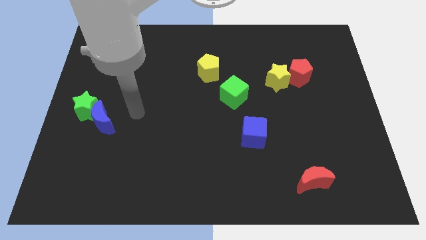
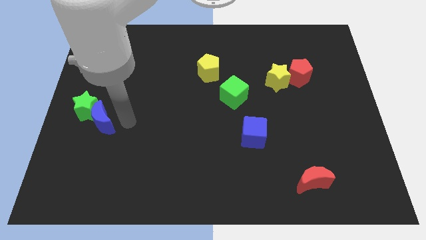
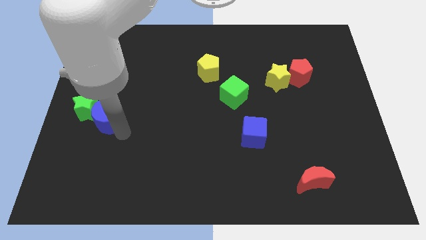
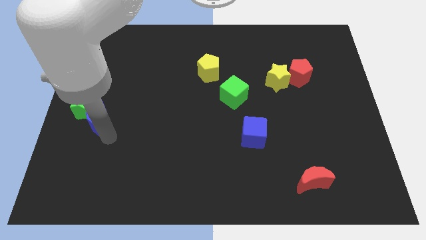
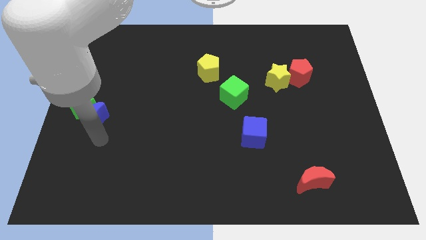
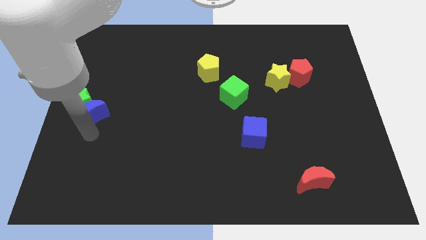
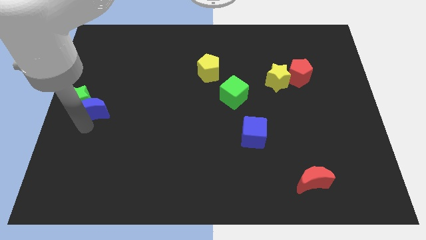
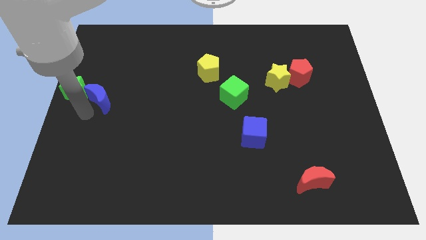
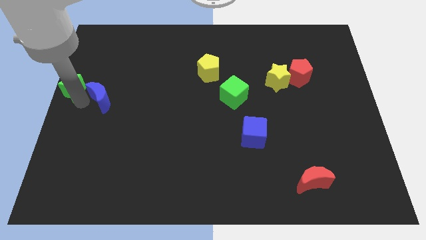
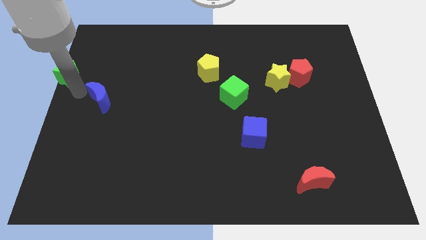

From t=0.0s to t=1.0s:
move the blue moon away from the green star

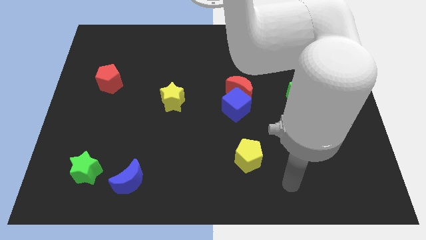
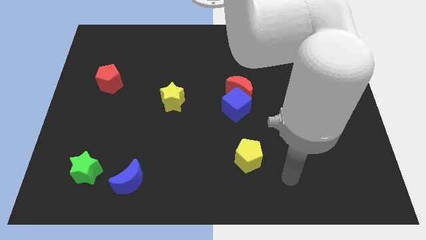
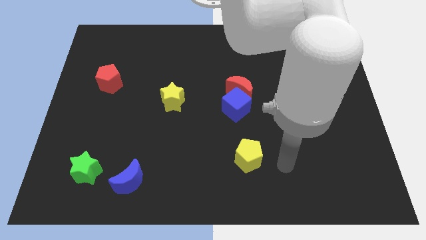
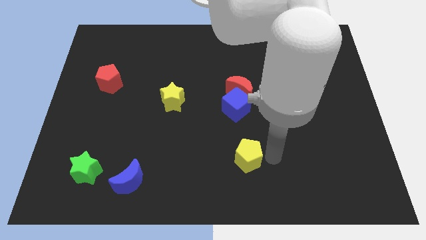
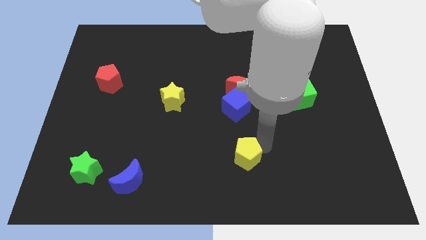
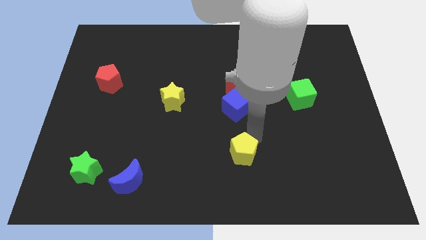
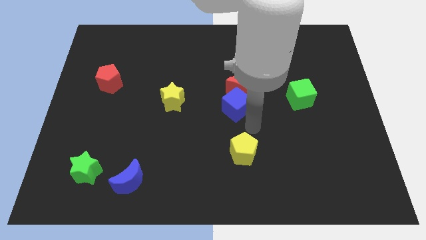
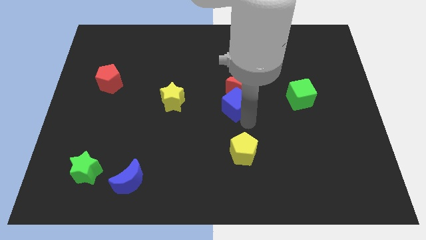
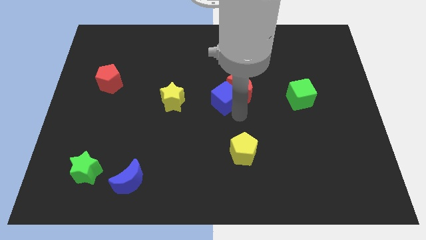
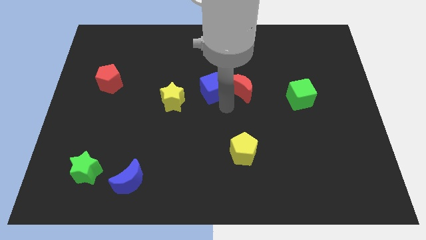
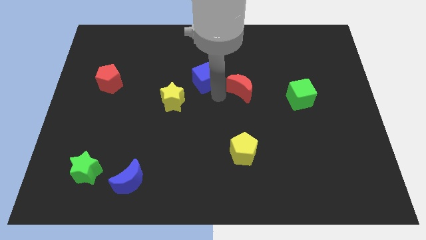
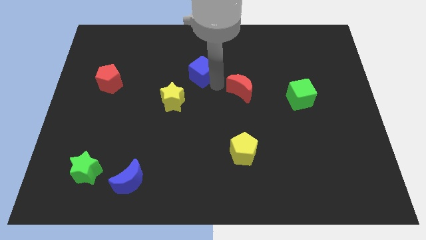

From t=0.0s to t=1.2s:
separate the red moon from the blue cube

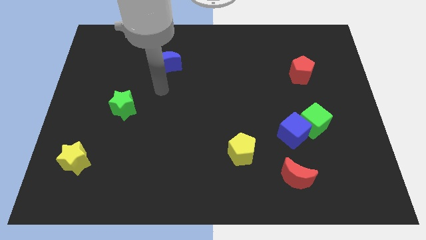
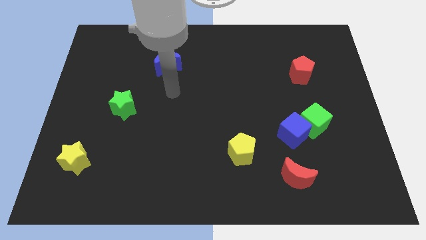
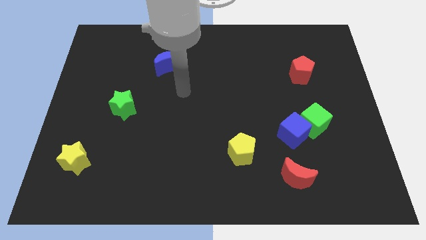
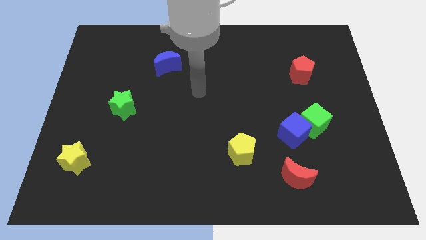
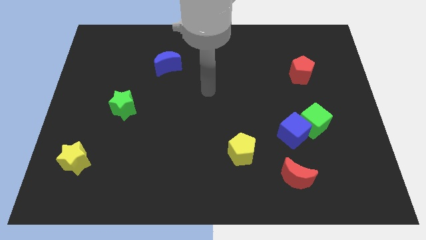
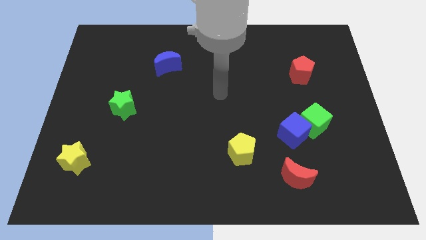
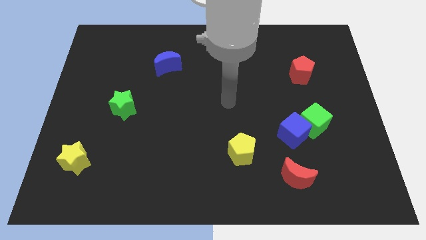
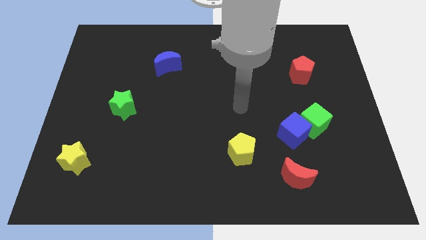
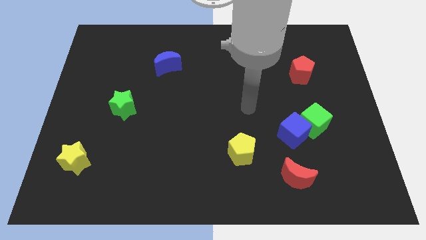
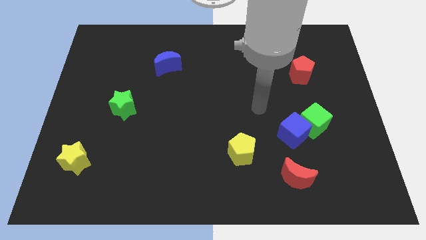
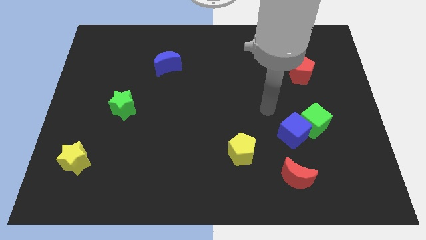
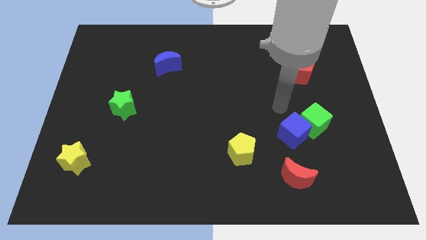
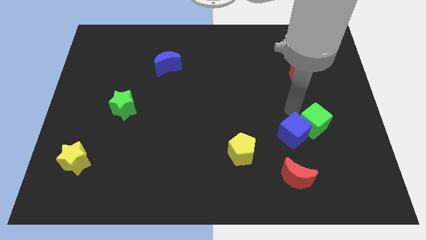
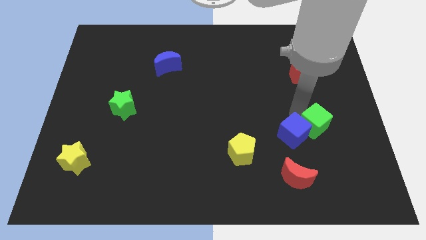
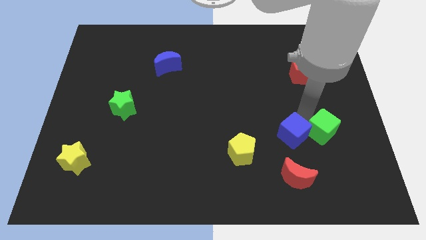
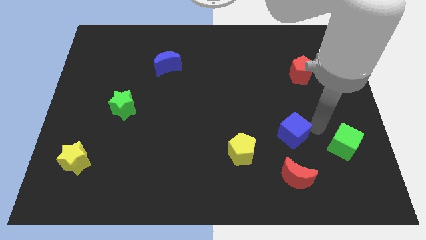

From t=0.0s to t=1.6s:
separate the blue cube from the green cube

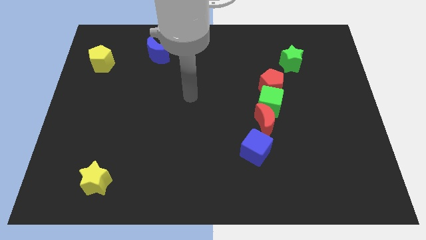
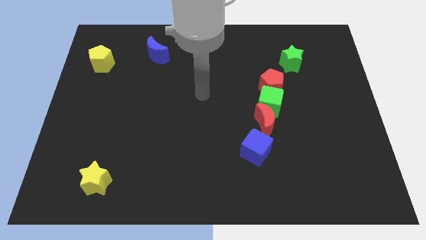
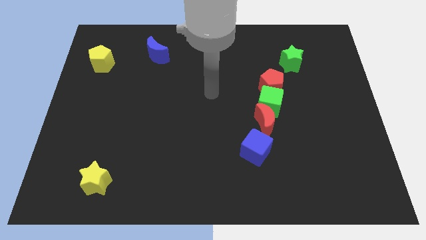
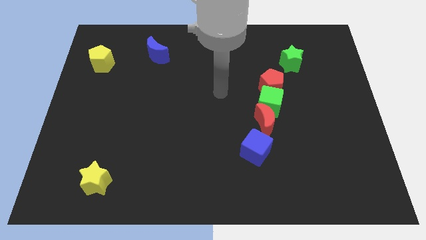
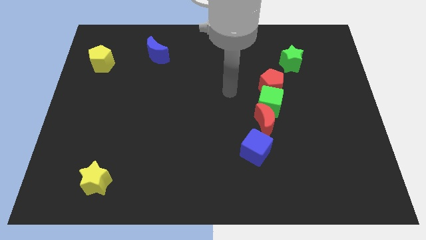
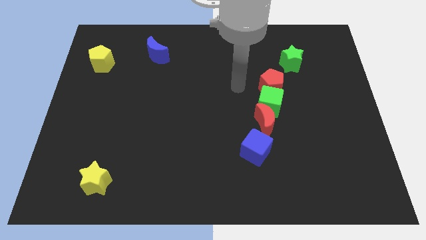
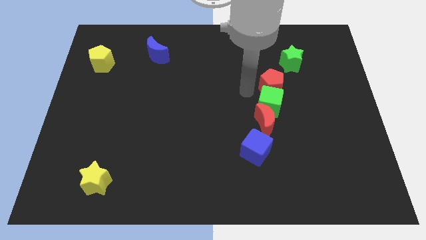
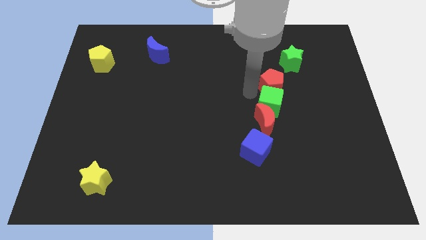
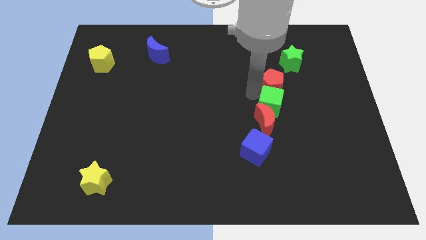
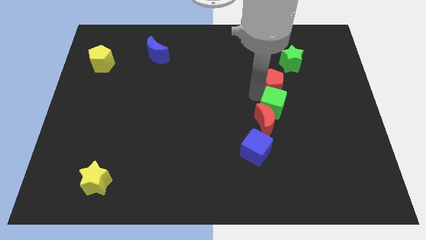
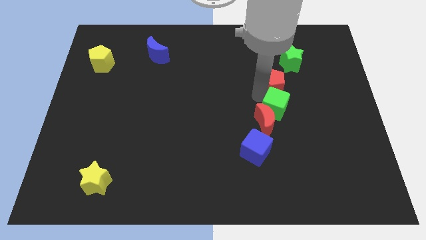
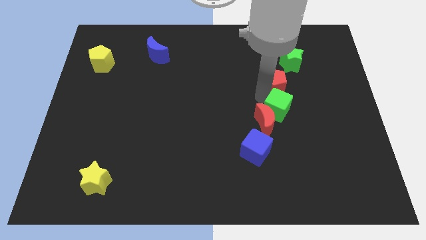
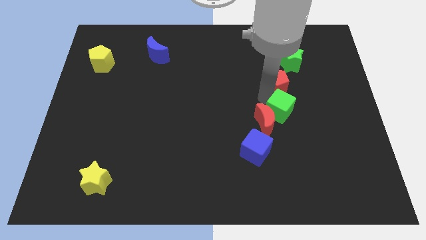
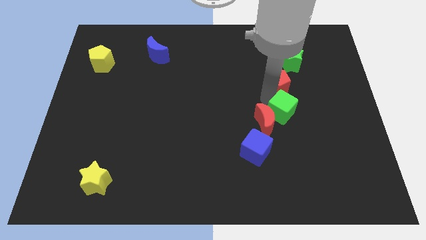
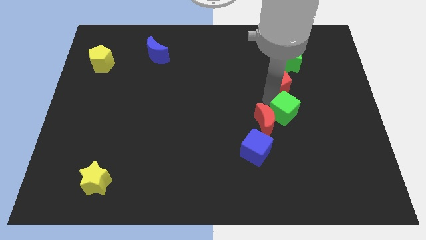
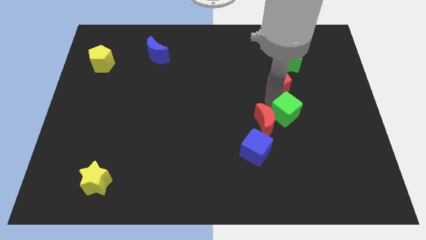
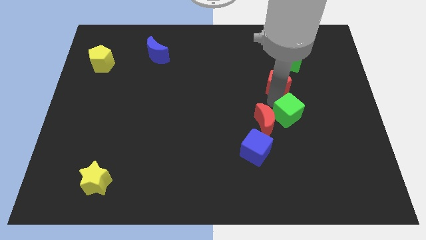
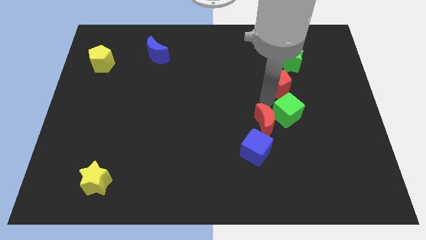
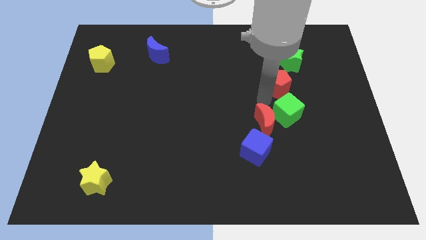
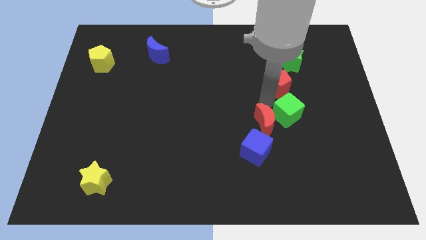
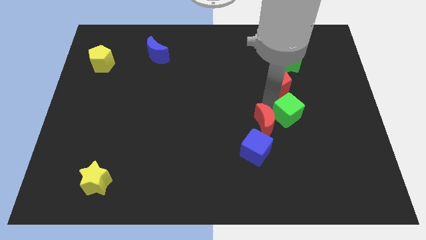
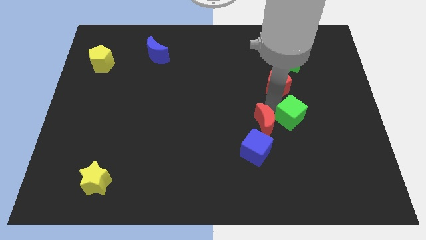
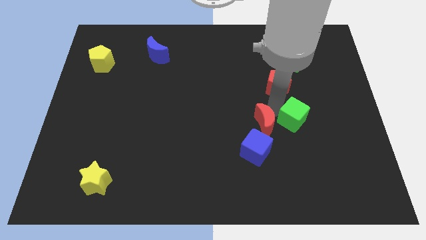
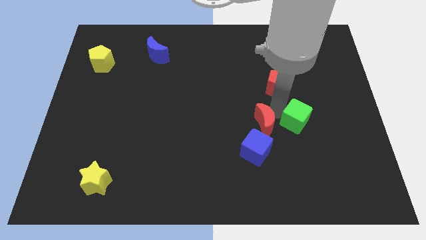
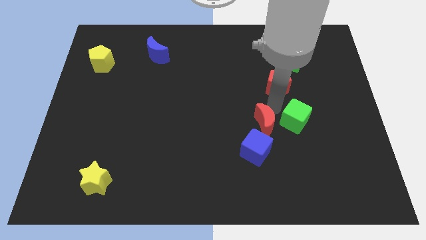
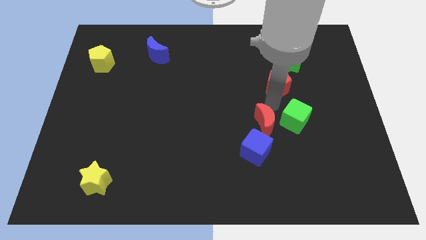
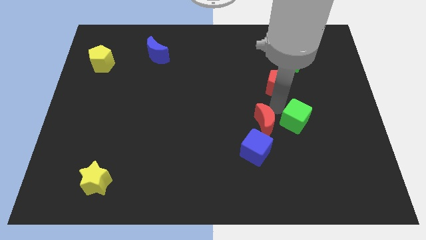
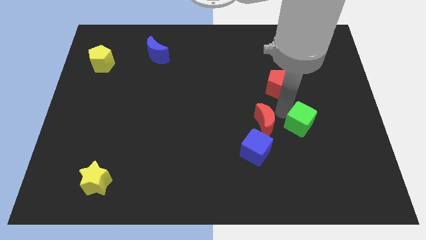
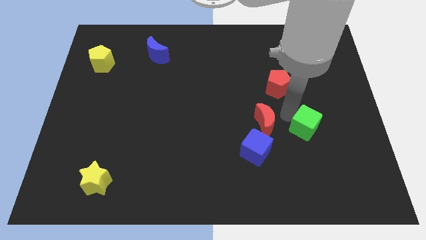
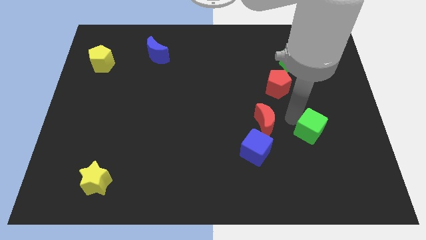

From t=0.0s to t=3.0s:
separate the green cube from the red moon and red pentagon

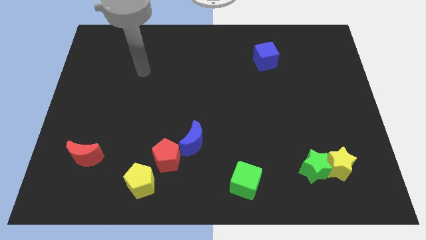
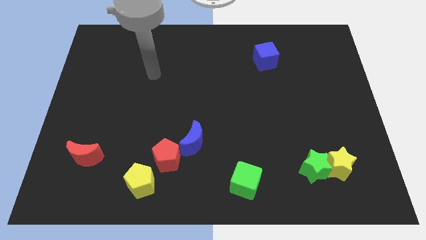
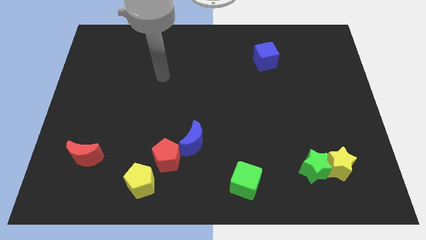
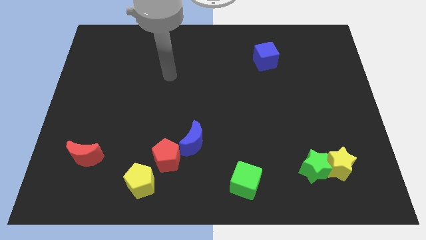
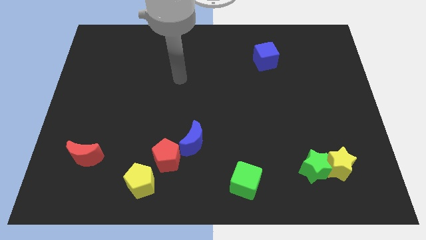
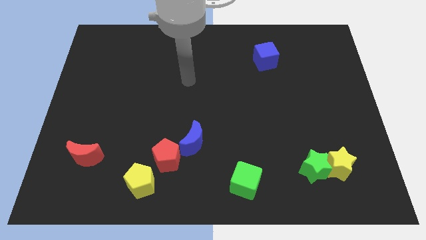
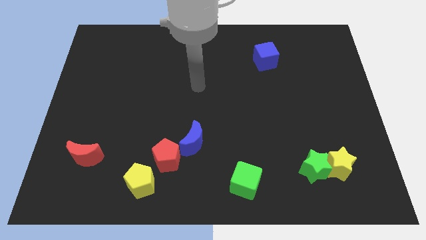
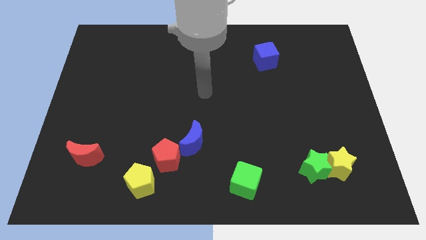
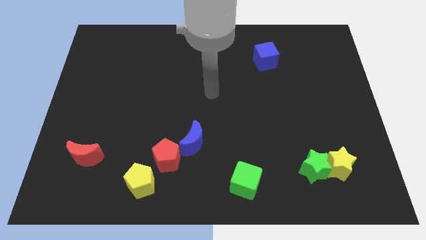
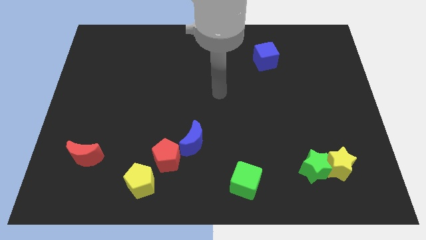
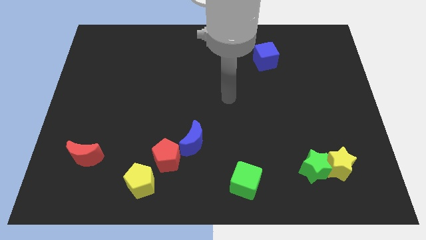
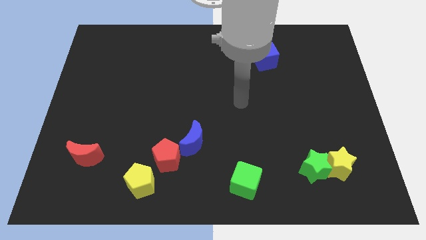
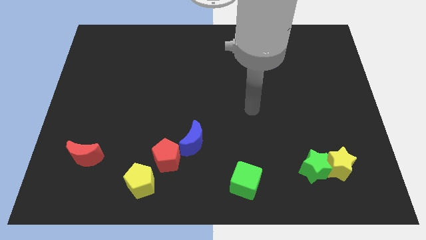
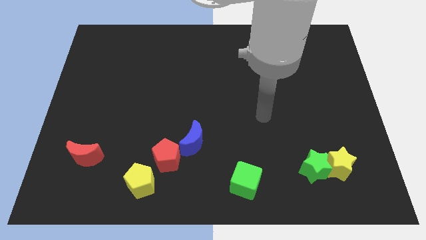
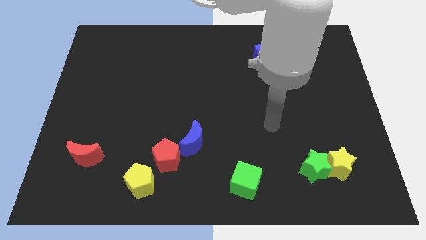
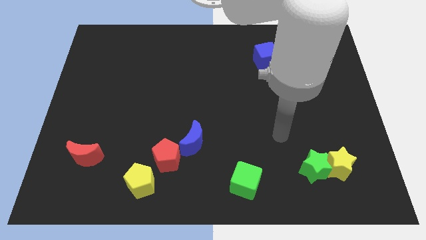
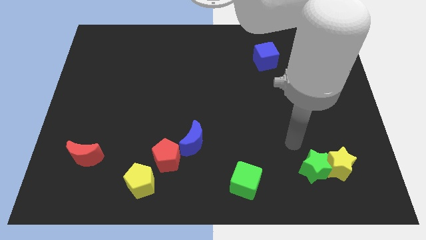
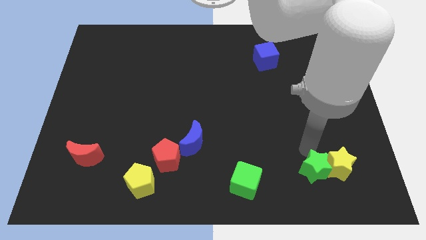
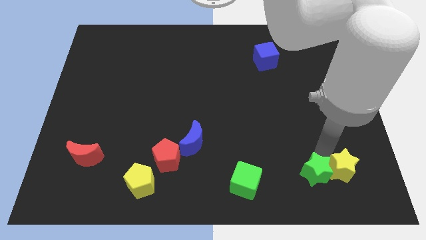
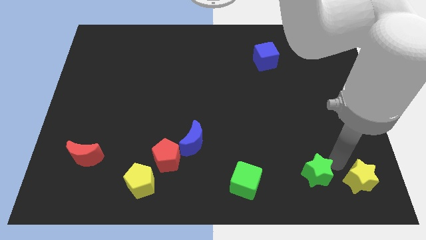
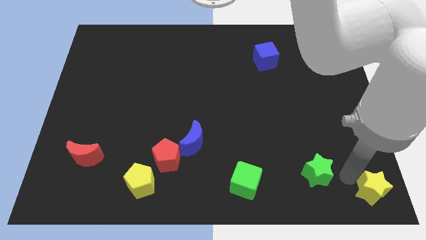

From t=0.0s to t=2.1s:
move the green star away from the yellow star

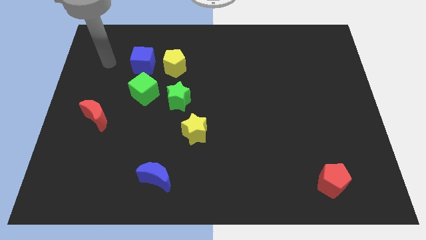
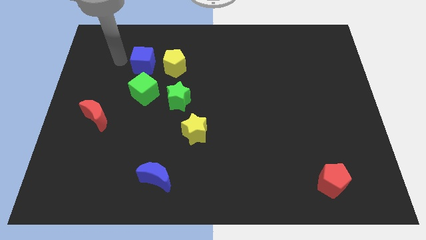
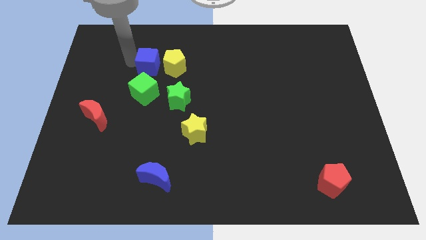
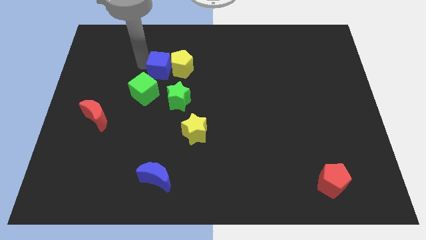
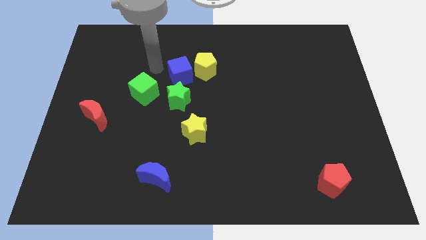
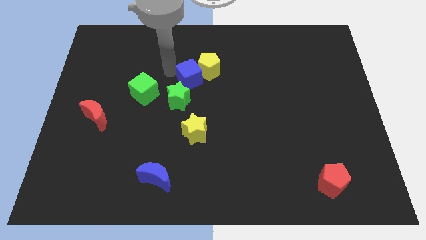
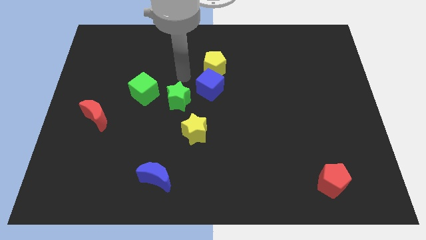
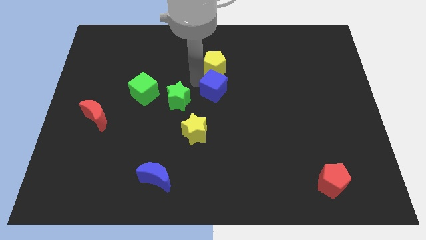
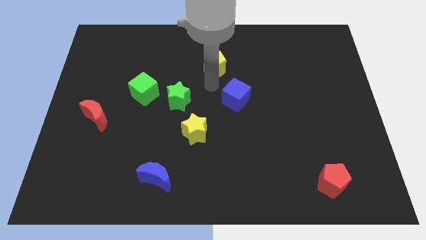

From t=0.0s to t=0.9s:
move the yellow pentagon away from the blue cube
